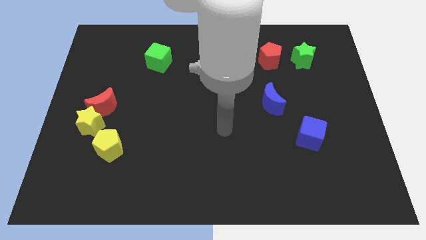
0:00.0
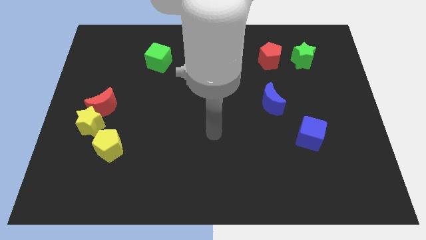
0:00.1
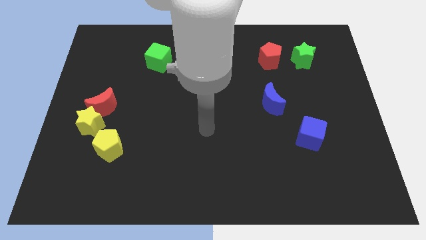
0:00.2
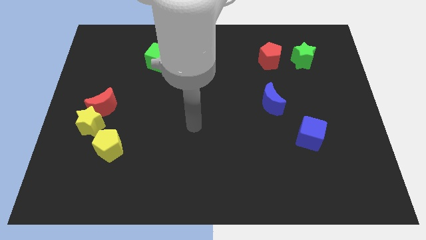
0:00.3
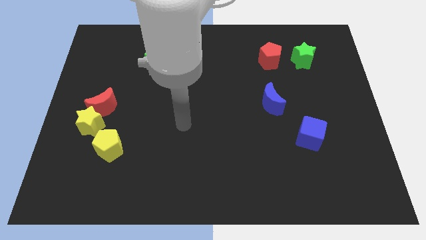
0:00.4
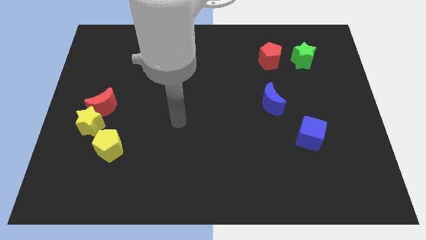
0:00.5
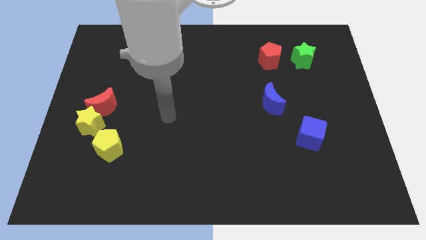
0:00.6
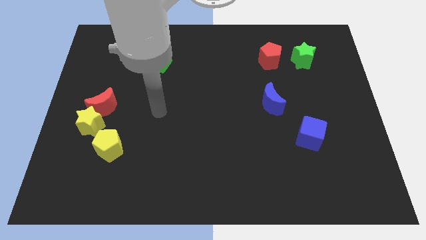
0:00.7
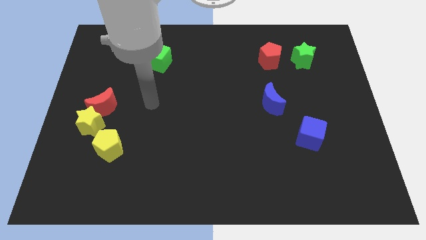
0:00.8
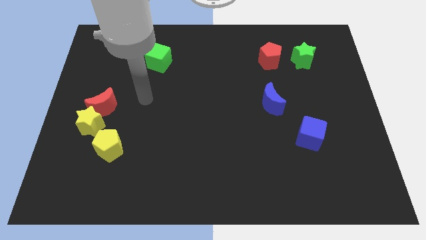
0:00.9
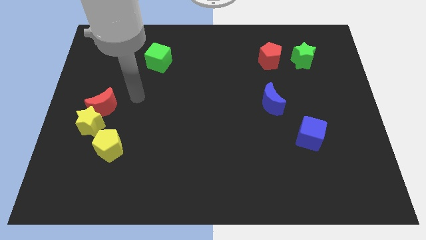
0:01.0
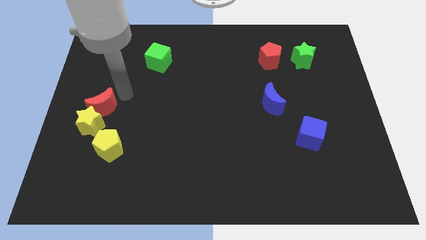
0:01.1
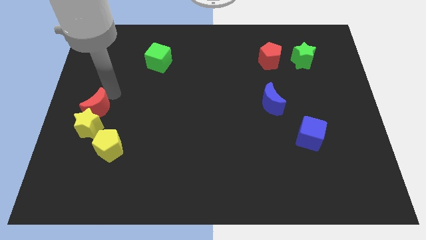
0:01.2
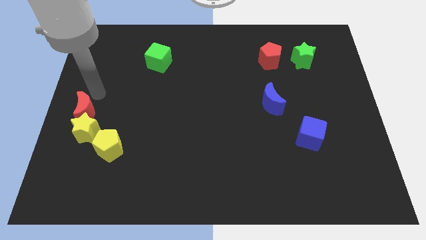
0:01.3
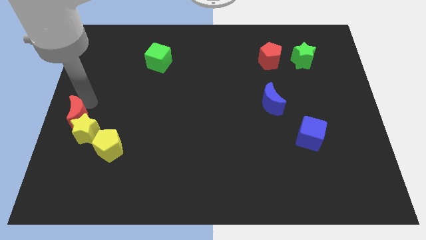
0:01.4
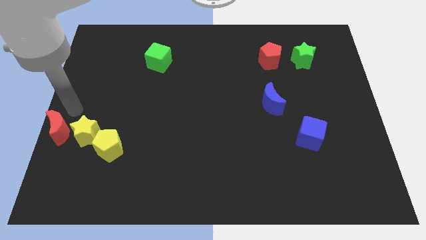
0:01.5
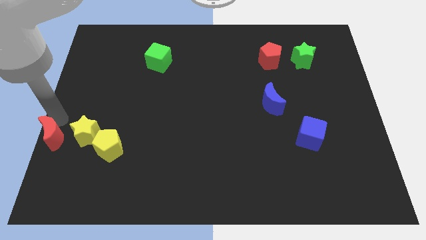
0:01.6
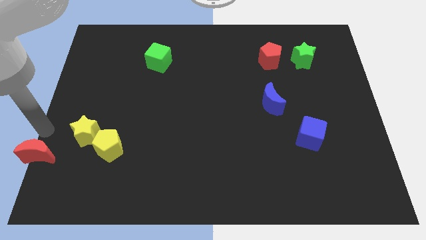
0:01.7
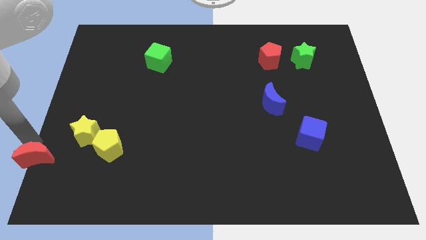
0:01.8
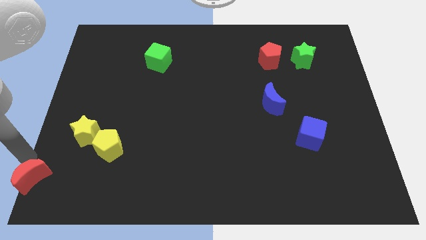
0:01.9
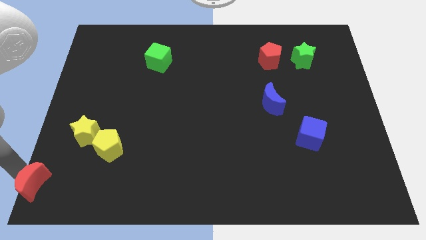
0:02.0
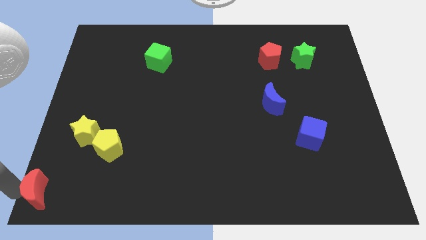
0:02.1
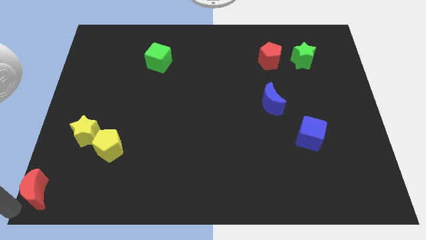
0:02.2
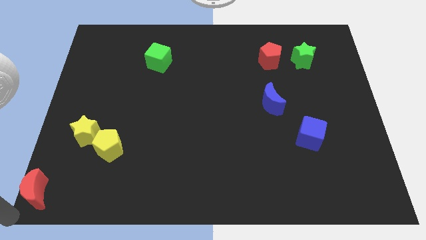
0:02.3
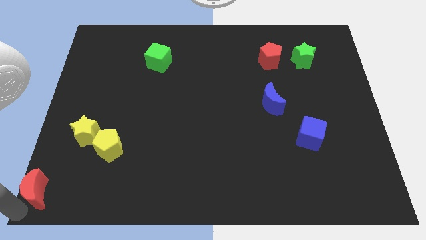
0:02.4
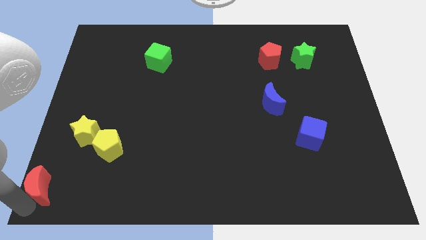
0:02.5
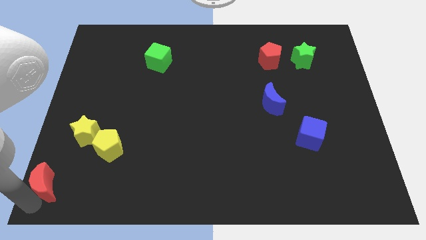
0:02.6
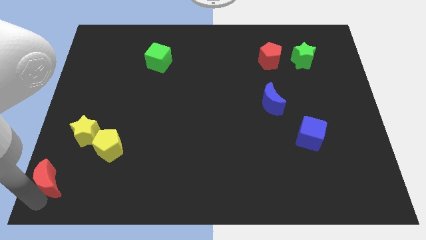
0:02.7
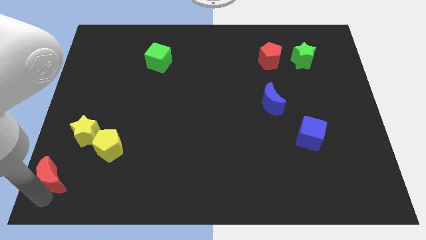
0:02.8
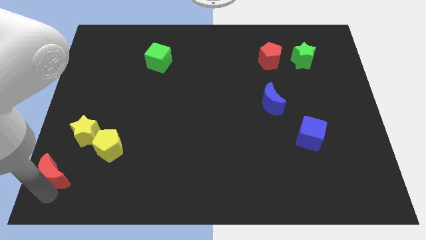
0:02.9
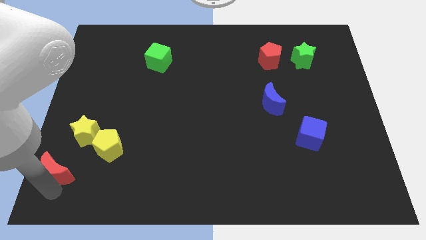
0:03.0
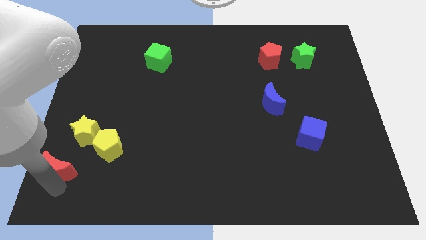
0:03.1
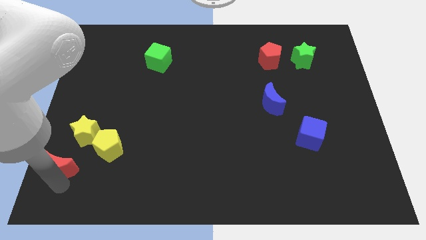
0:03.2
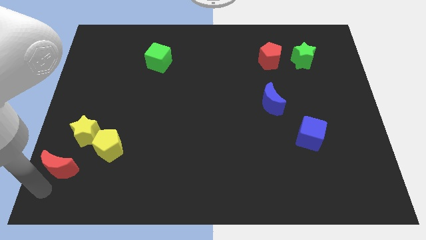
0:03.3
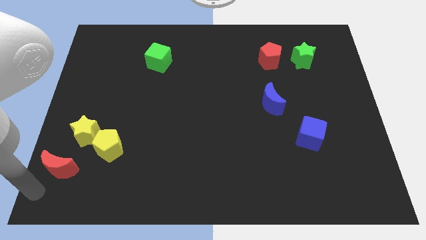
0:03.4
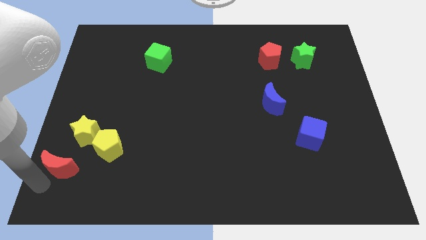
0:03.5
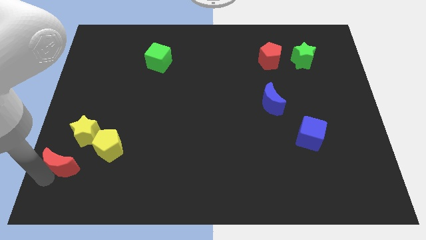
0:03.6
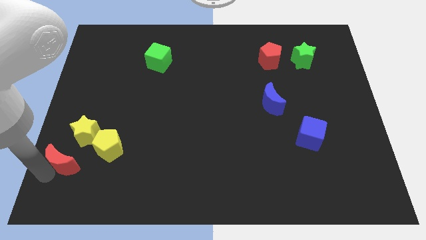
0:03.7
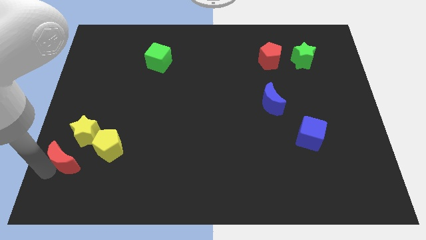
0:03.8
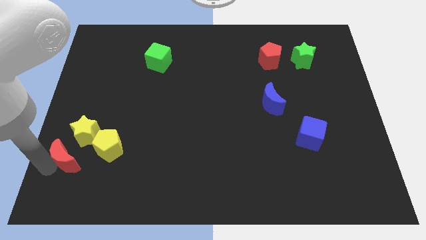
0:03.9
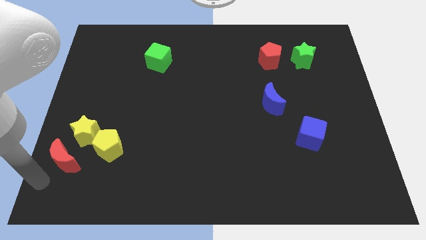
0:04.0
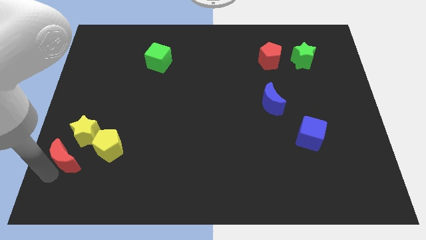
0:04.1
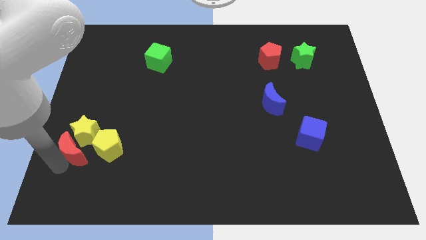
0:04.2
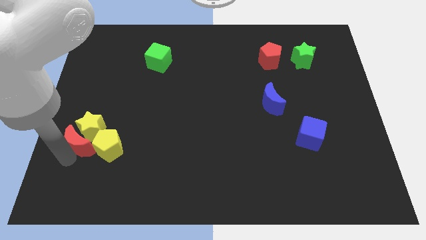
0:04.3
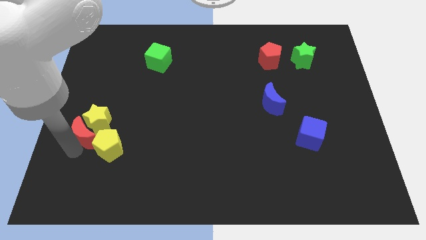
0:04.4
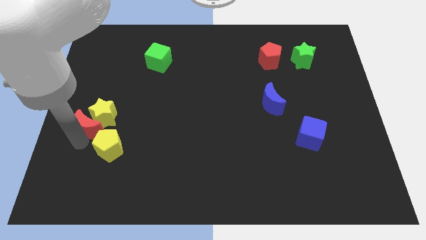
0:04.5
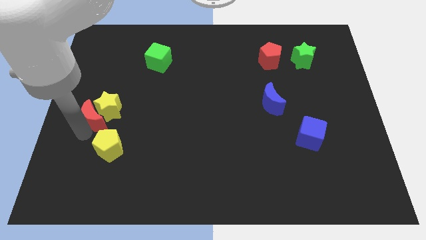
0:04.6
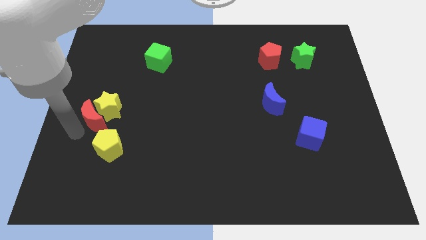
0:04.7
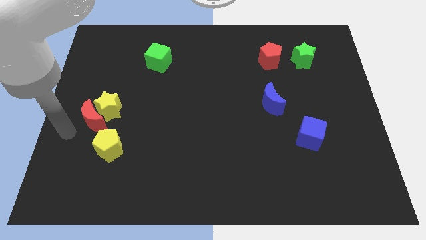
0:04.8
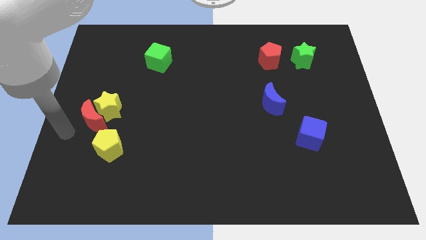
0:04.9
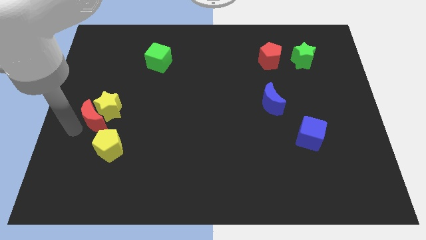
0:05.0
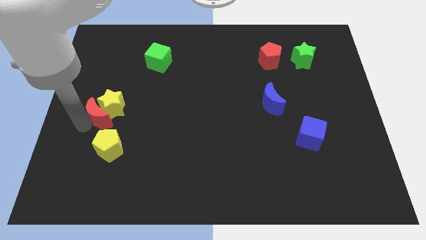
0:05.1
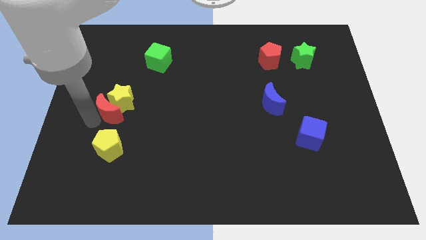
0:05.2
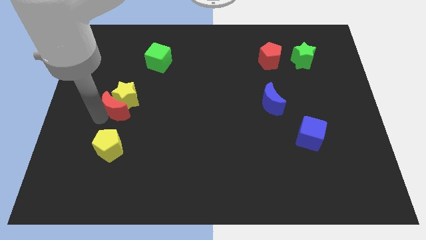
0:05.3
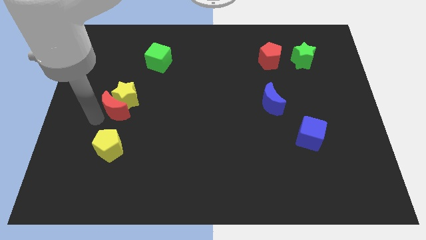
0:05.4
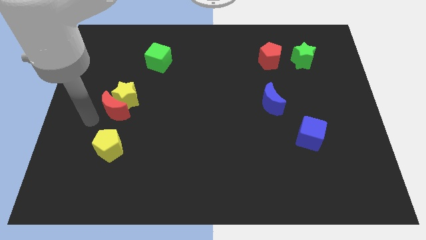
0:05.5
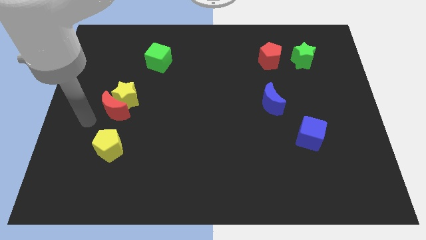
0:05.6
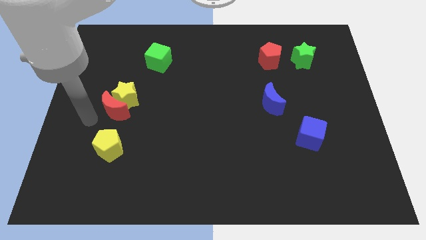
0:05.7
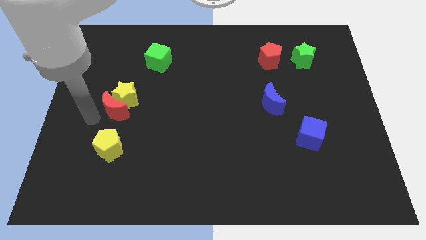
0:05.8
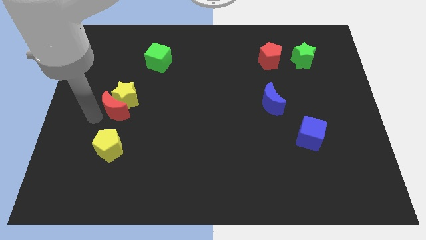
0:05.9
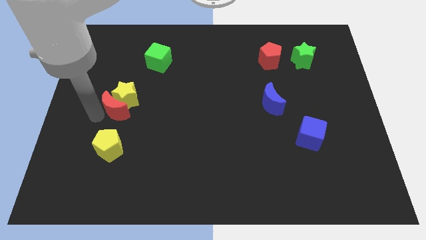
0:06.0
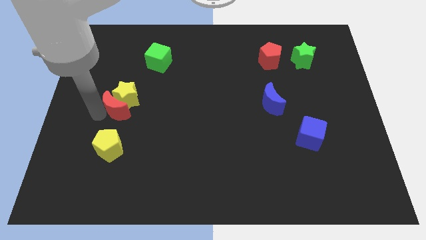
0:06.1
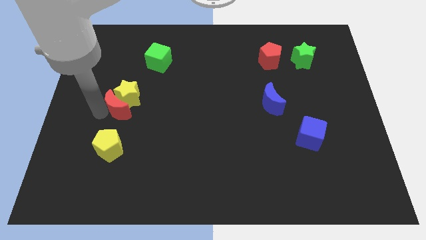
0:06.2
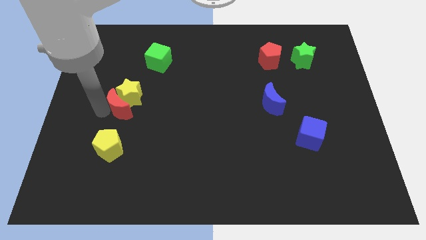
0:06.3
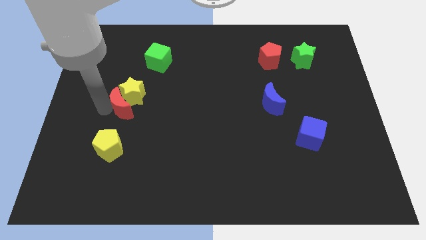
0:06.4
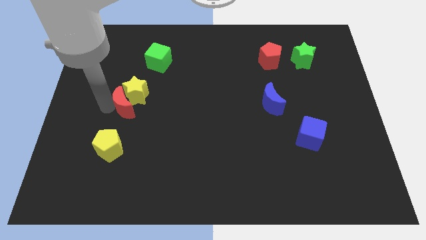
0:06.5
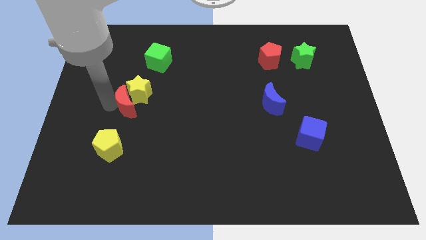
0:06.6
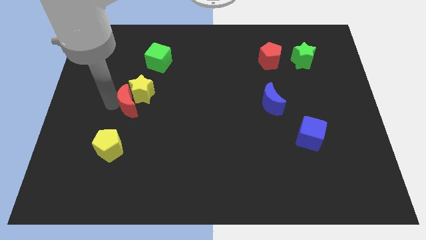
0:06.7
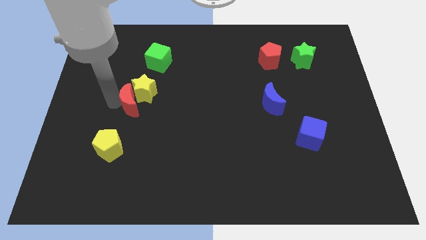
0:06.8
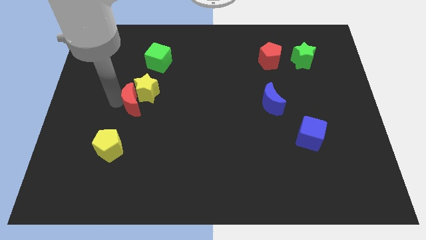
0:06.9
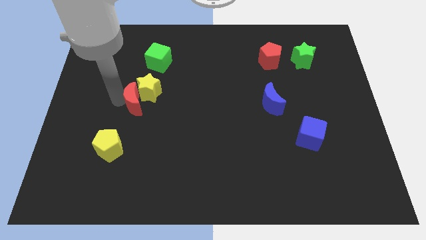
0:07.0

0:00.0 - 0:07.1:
move the red moon to the right a little bit

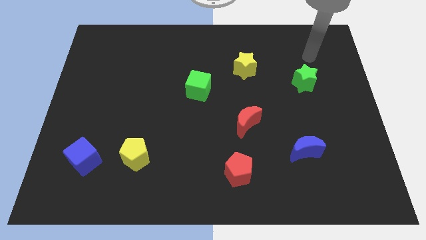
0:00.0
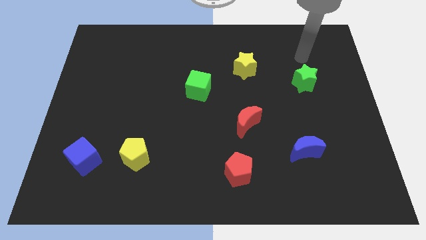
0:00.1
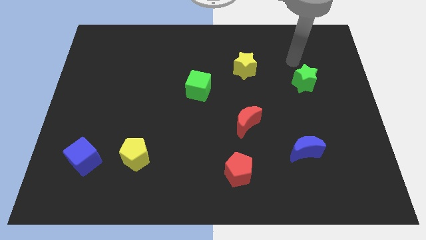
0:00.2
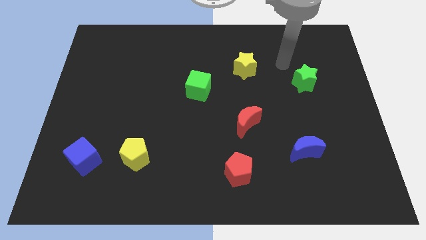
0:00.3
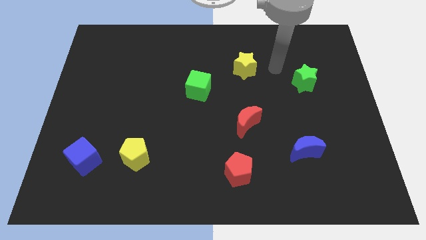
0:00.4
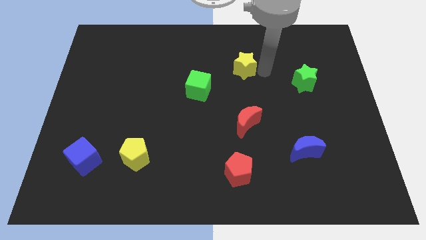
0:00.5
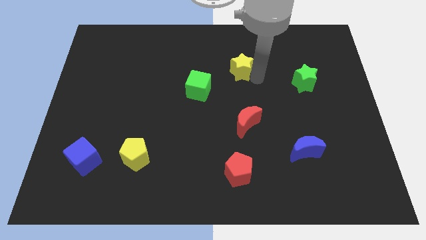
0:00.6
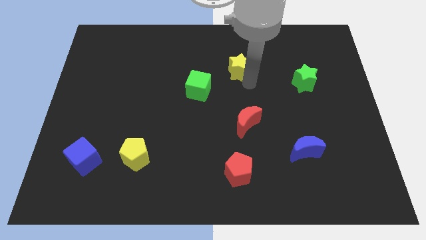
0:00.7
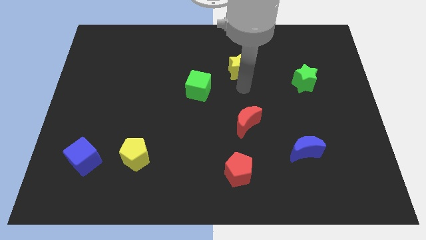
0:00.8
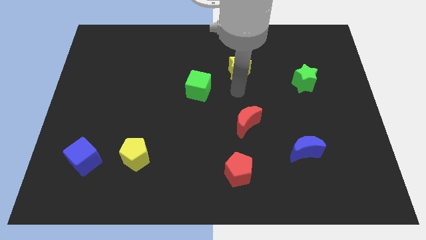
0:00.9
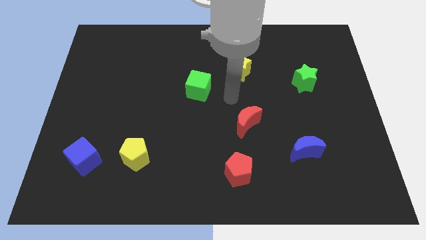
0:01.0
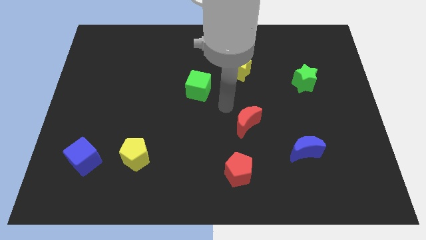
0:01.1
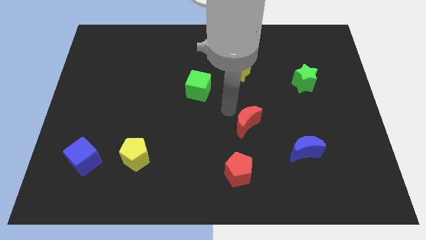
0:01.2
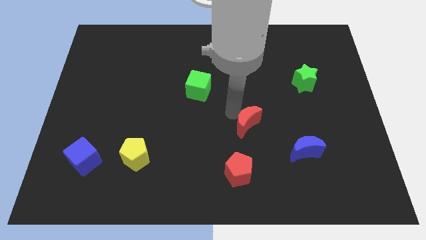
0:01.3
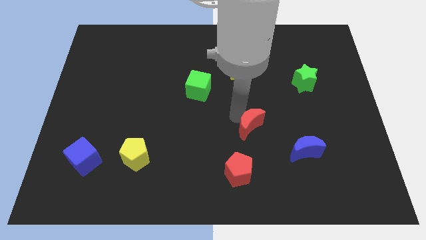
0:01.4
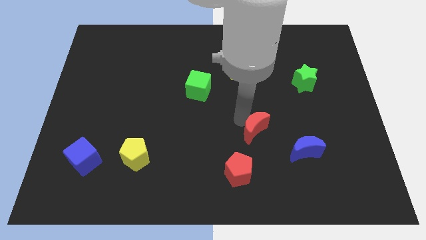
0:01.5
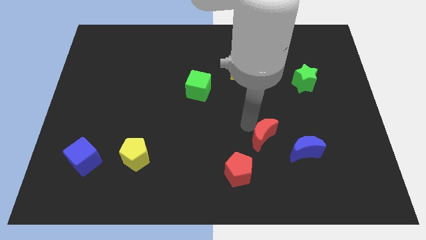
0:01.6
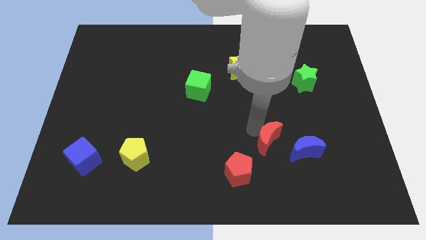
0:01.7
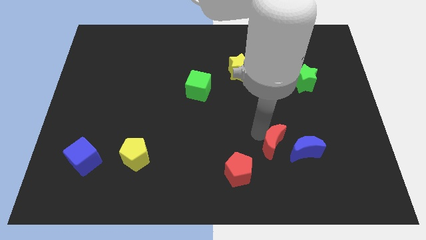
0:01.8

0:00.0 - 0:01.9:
move the red moon downwards and then to the right a bit
